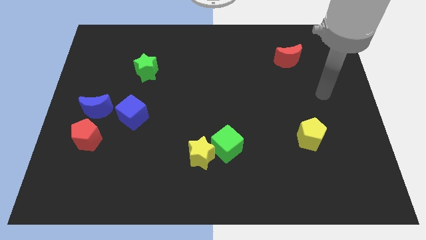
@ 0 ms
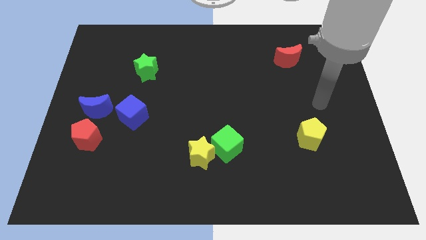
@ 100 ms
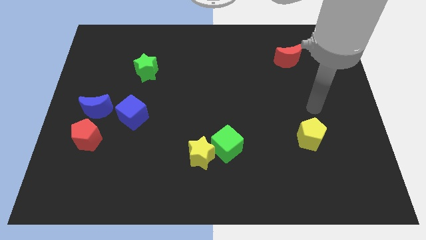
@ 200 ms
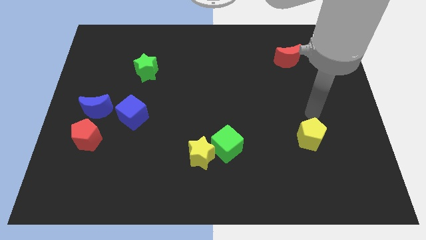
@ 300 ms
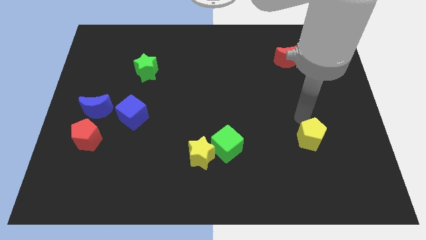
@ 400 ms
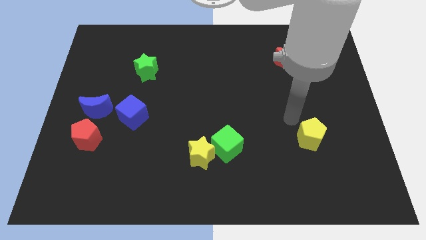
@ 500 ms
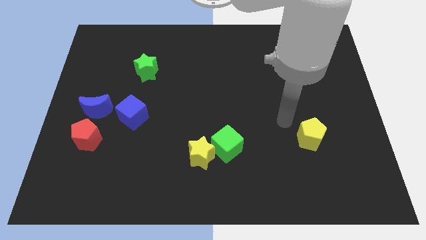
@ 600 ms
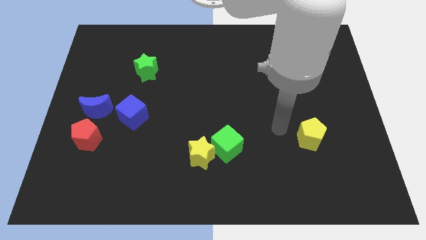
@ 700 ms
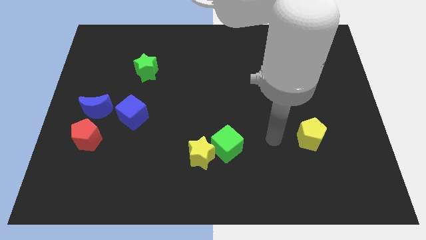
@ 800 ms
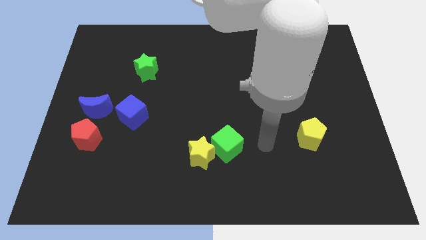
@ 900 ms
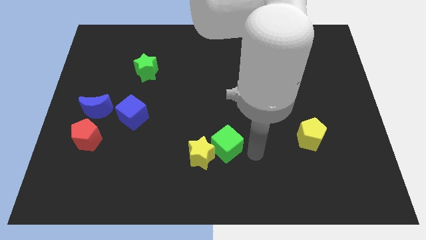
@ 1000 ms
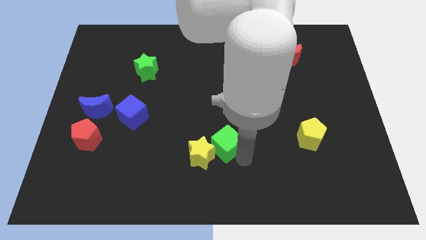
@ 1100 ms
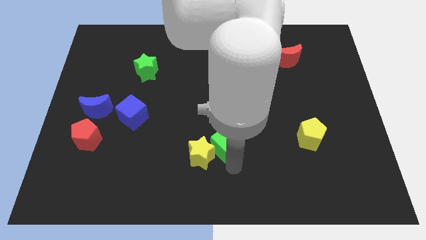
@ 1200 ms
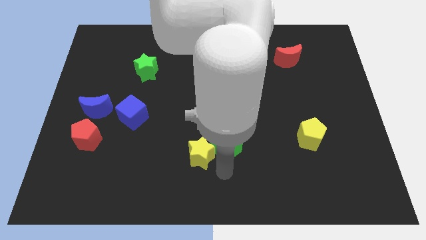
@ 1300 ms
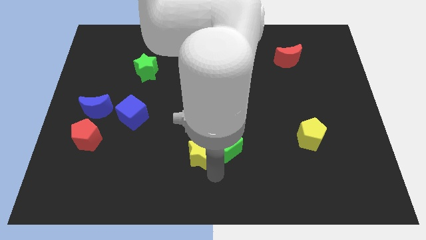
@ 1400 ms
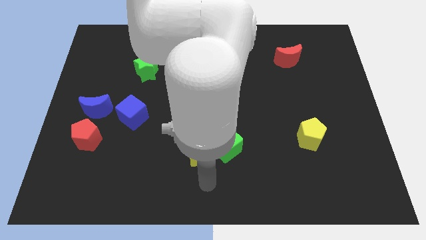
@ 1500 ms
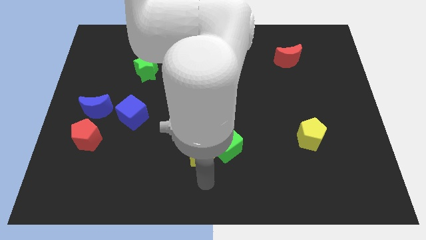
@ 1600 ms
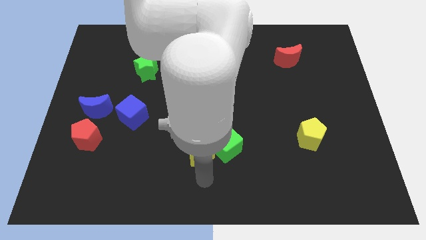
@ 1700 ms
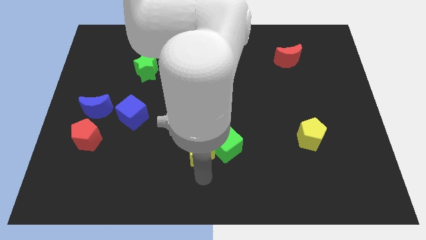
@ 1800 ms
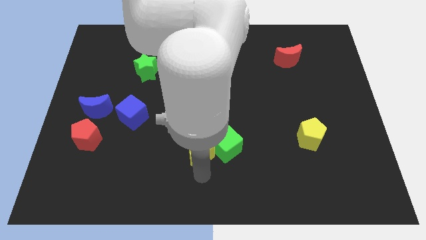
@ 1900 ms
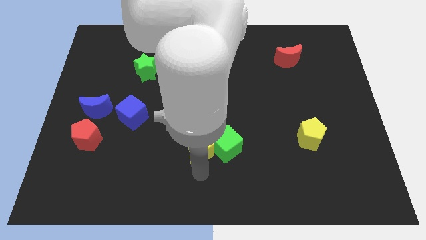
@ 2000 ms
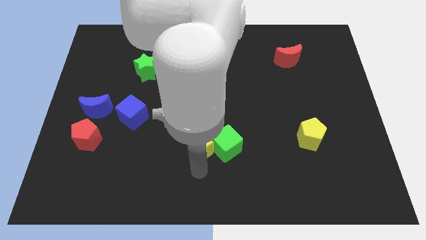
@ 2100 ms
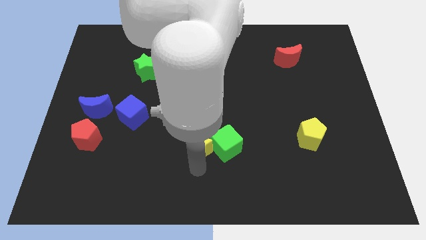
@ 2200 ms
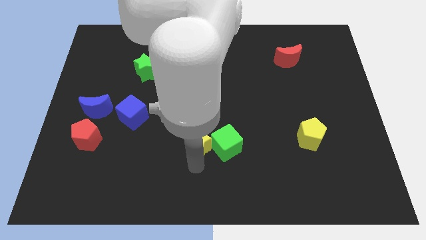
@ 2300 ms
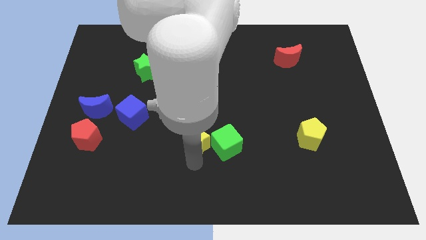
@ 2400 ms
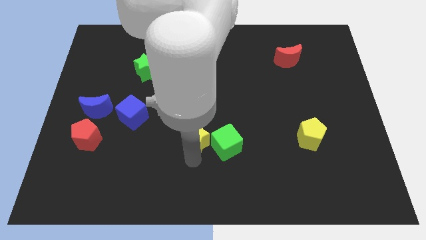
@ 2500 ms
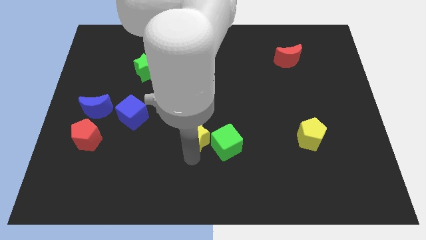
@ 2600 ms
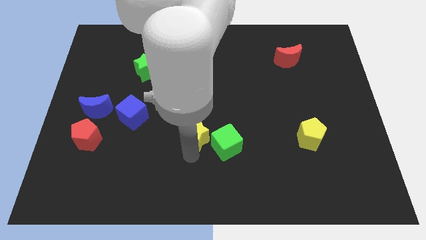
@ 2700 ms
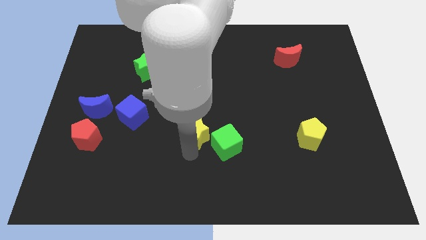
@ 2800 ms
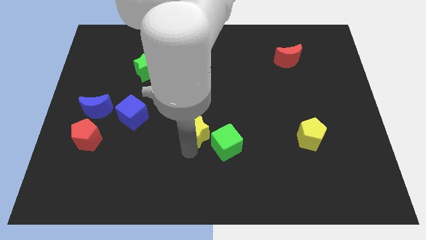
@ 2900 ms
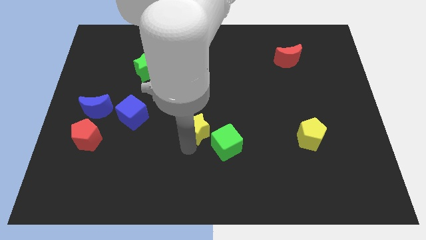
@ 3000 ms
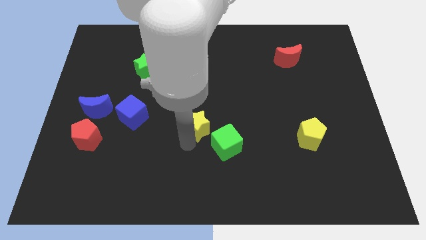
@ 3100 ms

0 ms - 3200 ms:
slightly push the yellow star upwards

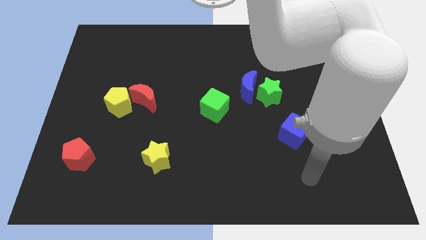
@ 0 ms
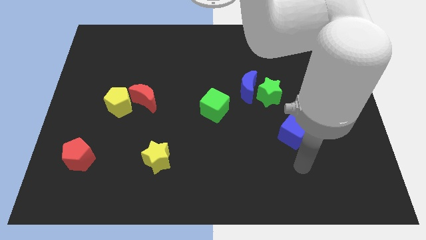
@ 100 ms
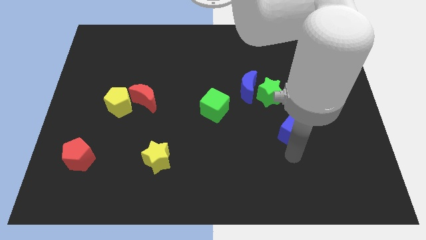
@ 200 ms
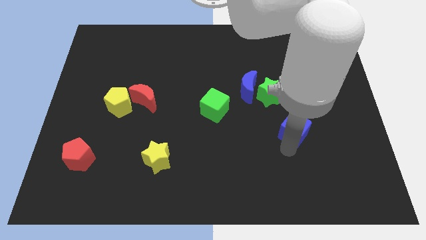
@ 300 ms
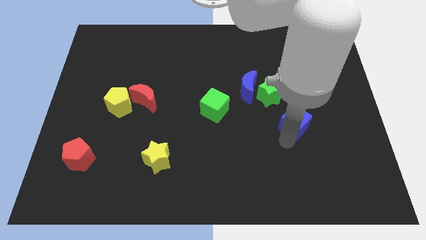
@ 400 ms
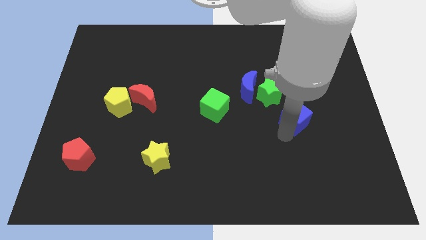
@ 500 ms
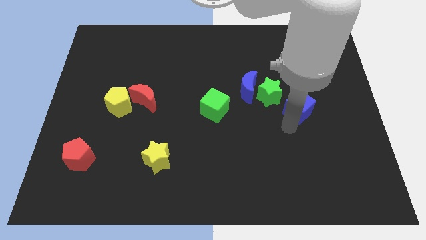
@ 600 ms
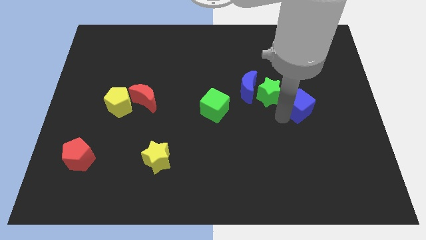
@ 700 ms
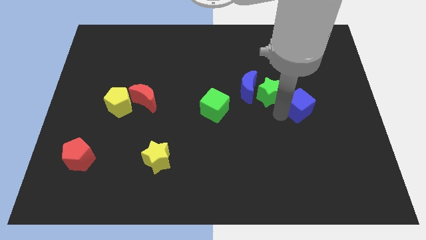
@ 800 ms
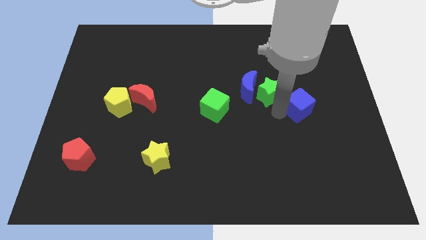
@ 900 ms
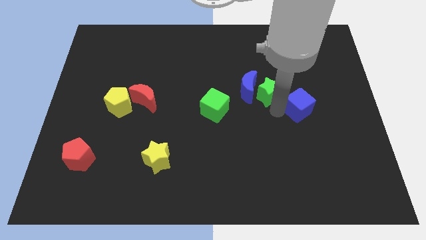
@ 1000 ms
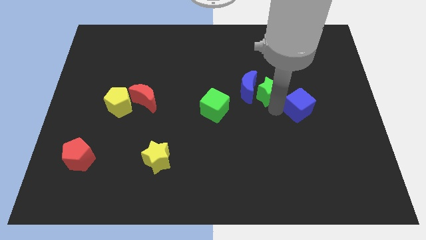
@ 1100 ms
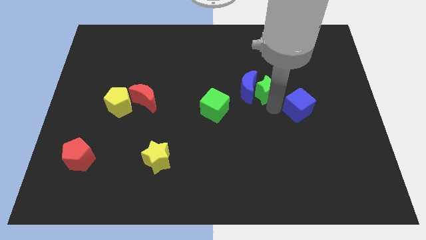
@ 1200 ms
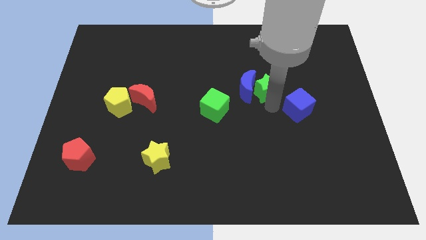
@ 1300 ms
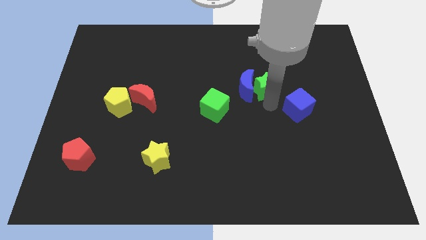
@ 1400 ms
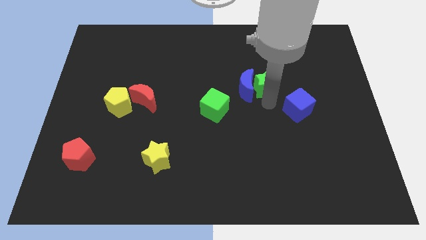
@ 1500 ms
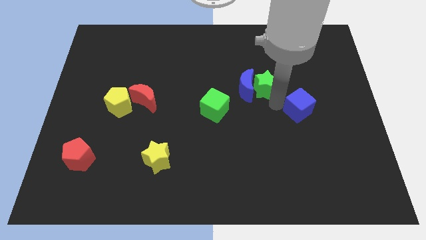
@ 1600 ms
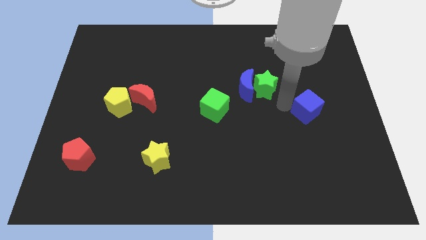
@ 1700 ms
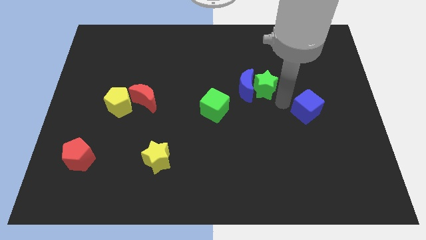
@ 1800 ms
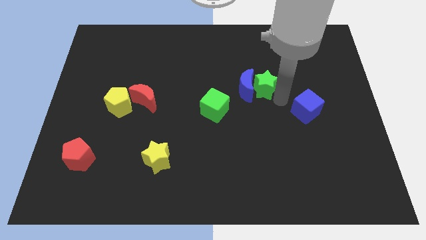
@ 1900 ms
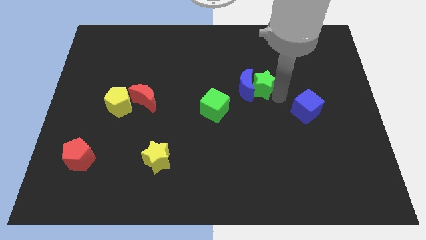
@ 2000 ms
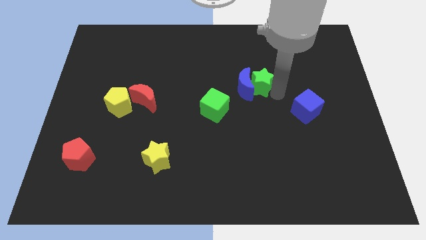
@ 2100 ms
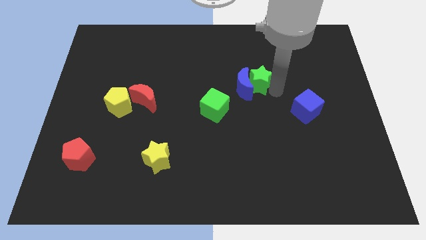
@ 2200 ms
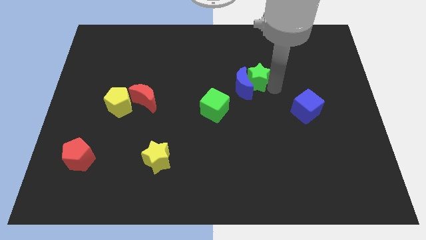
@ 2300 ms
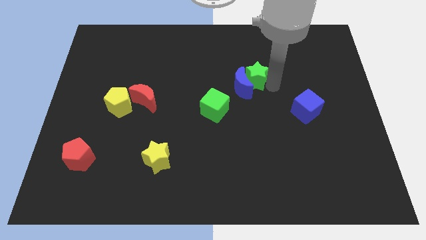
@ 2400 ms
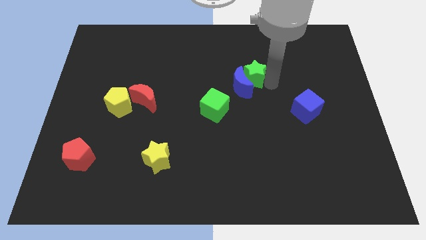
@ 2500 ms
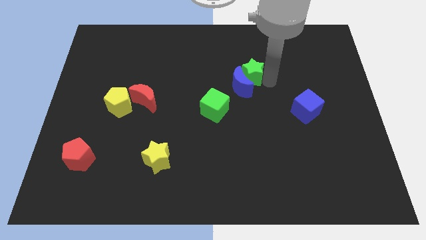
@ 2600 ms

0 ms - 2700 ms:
slightly slide the green star diagonally up and left

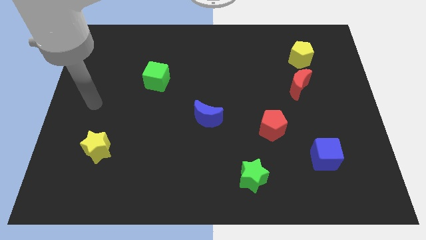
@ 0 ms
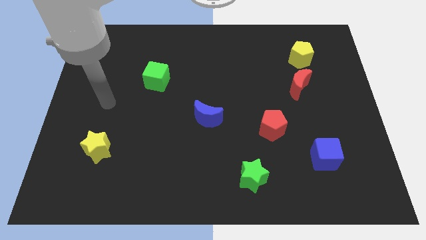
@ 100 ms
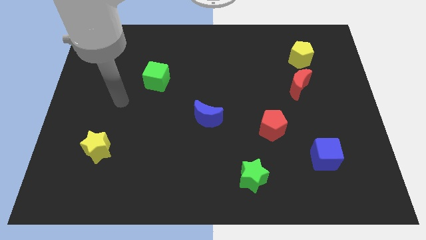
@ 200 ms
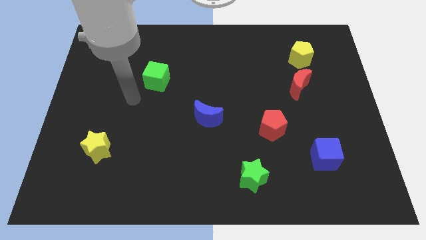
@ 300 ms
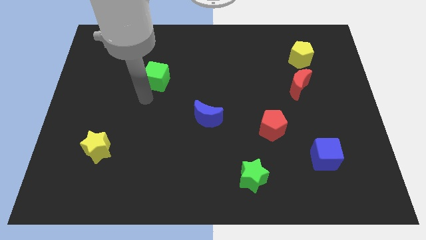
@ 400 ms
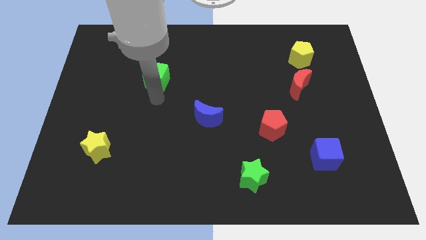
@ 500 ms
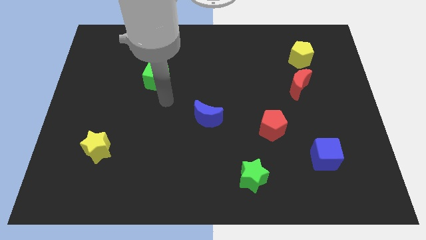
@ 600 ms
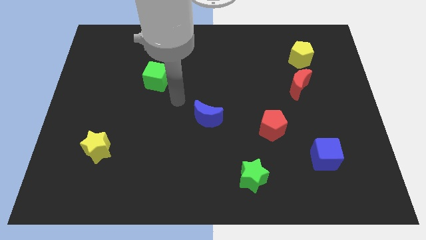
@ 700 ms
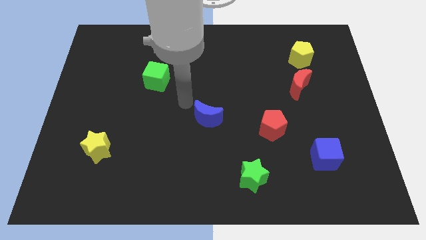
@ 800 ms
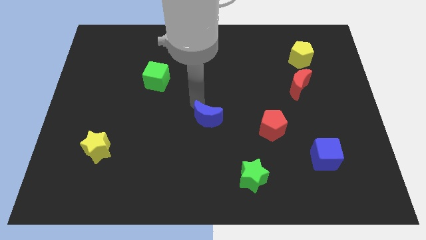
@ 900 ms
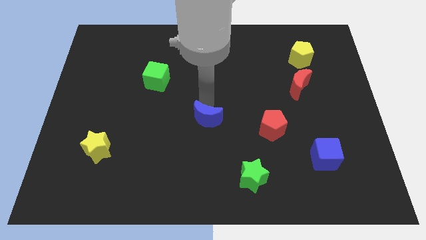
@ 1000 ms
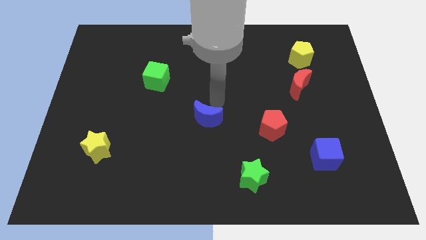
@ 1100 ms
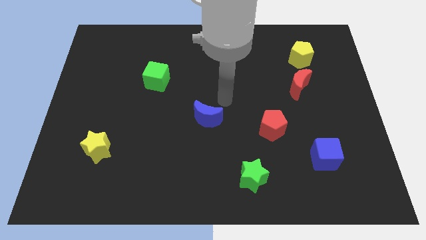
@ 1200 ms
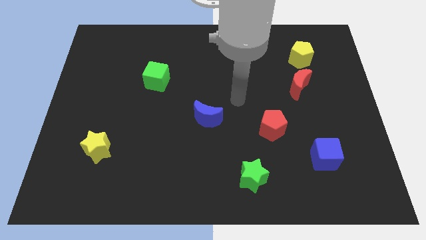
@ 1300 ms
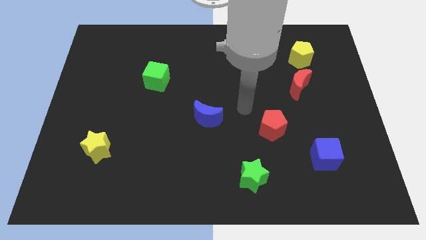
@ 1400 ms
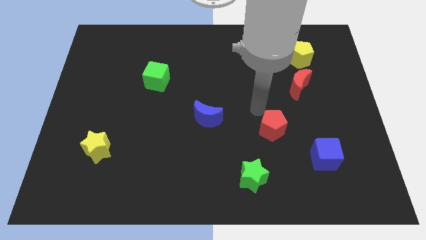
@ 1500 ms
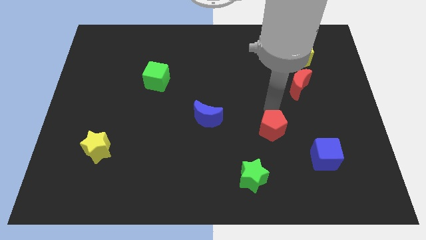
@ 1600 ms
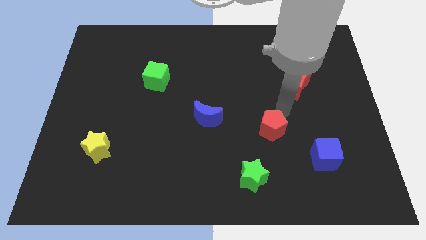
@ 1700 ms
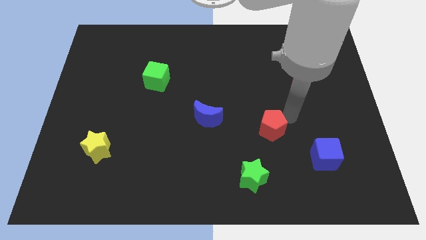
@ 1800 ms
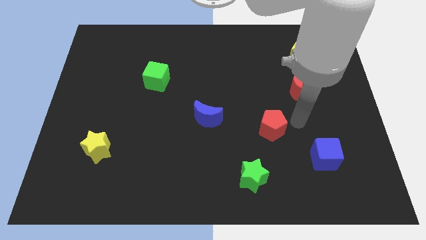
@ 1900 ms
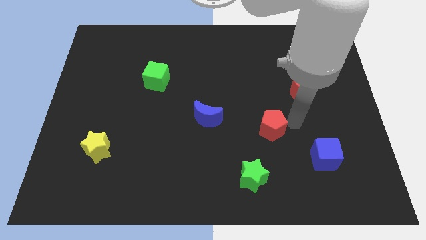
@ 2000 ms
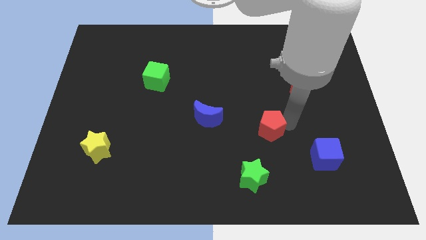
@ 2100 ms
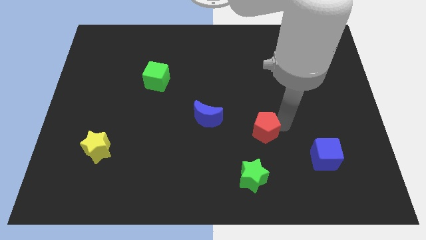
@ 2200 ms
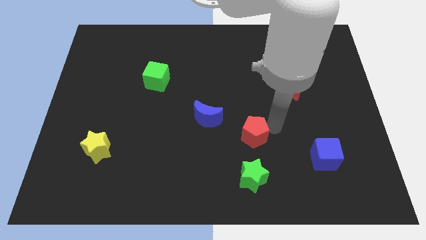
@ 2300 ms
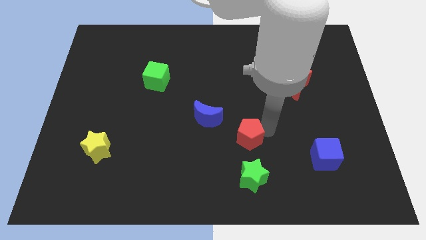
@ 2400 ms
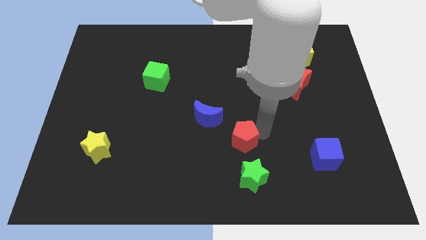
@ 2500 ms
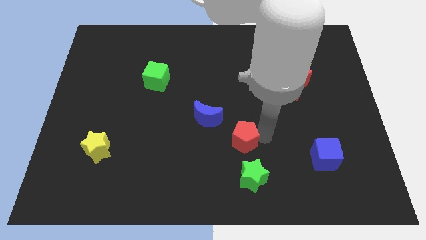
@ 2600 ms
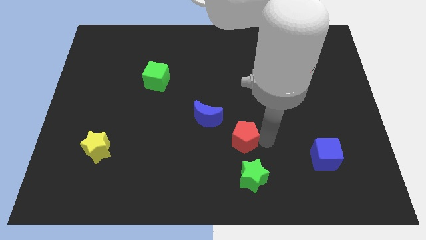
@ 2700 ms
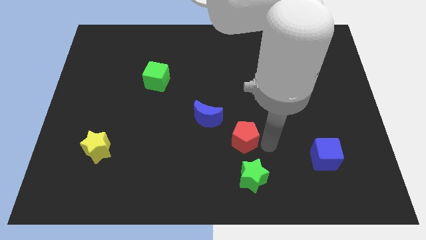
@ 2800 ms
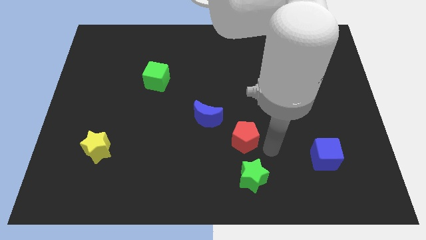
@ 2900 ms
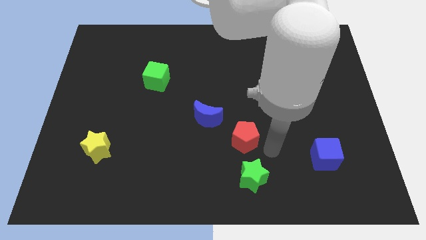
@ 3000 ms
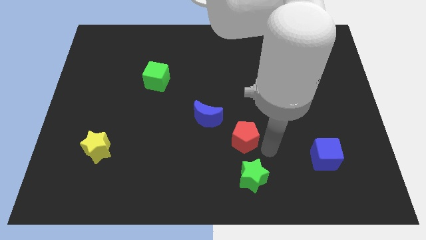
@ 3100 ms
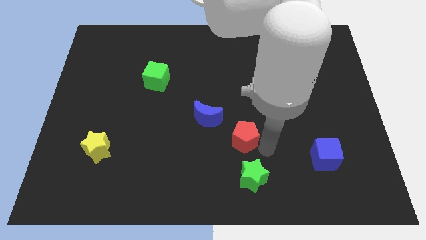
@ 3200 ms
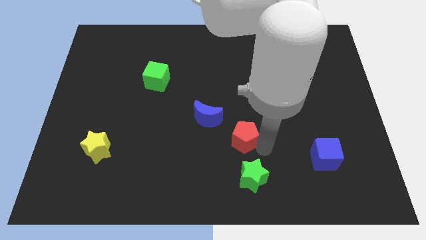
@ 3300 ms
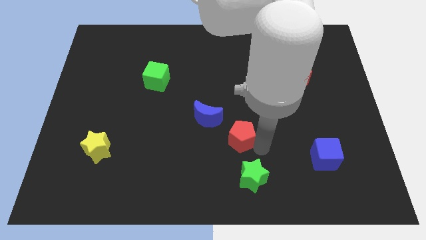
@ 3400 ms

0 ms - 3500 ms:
move the red pentagon a bit left
